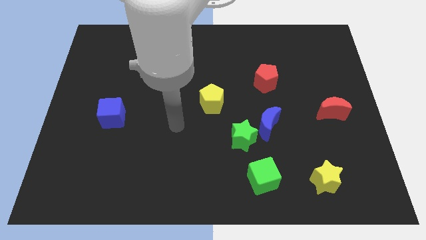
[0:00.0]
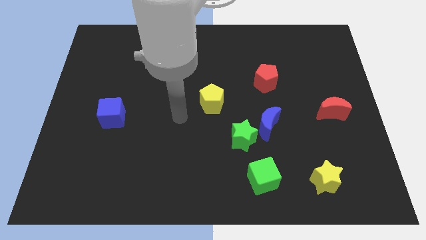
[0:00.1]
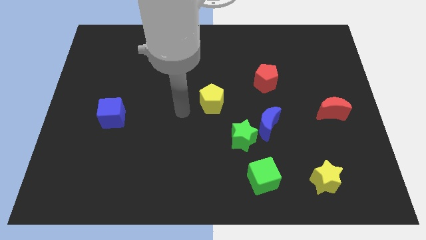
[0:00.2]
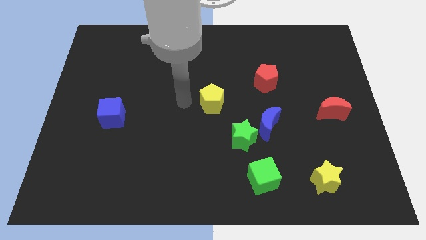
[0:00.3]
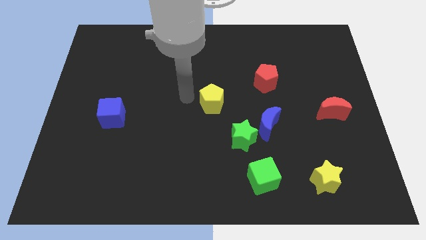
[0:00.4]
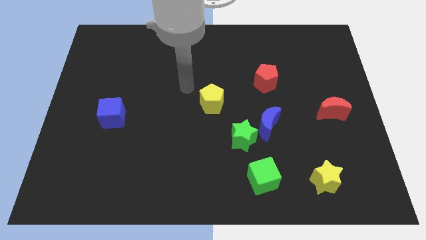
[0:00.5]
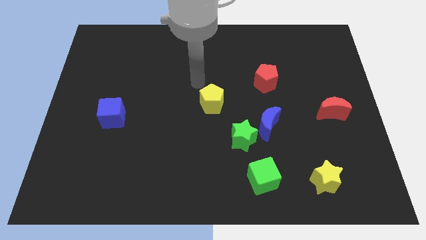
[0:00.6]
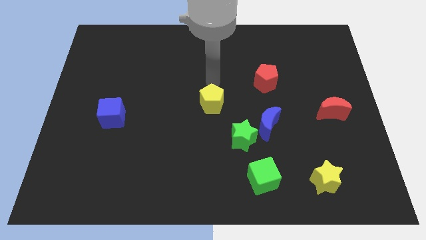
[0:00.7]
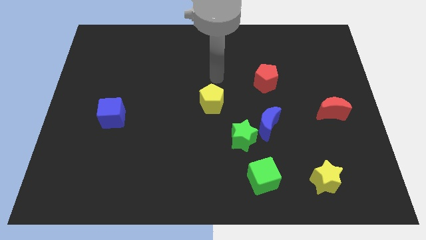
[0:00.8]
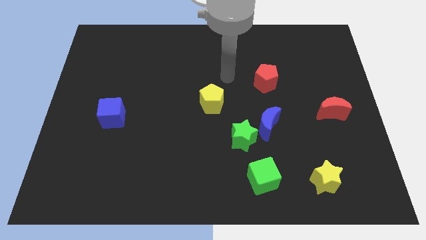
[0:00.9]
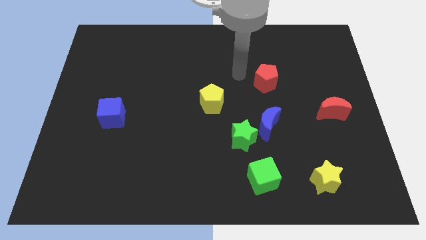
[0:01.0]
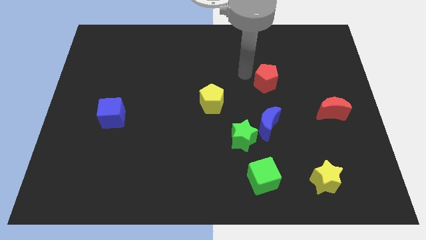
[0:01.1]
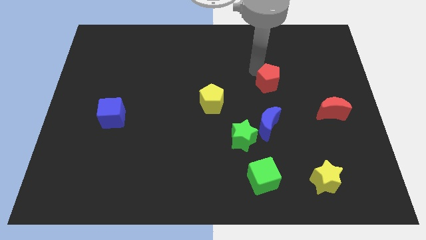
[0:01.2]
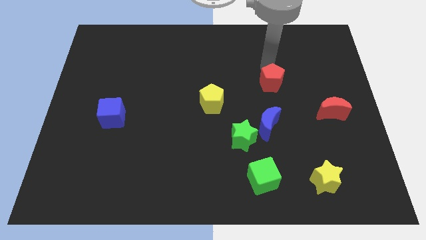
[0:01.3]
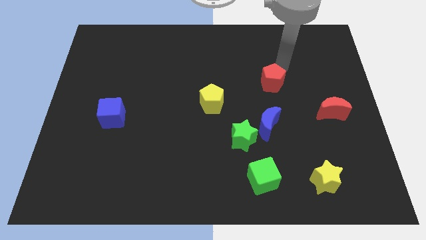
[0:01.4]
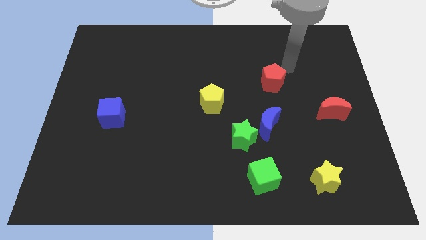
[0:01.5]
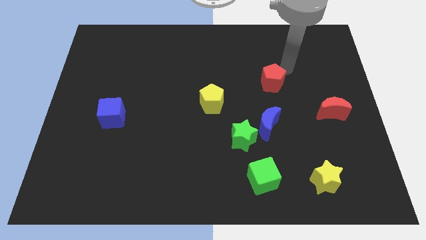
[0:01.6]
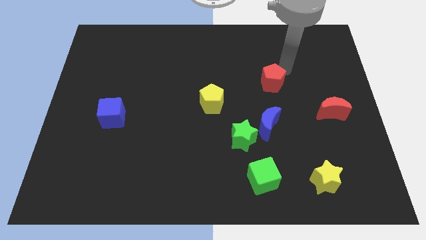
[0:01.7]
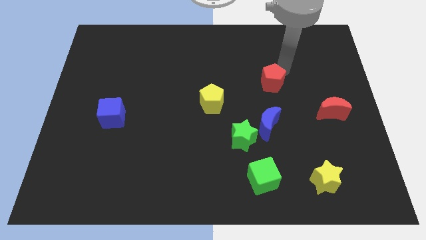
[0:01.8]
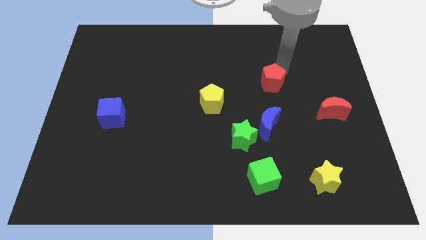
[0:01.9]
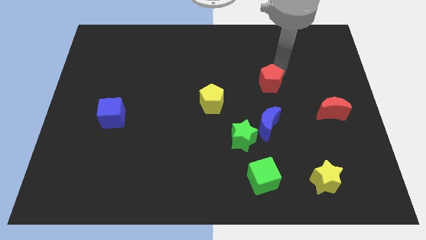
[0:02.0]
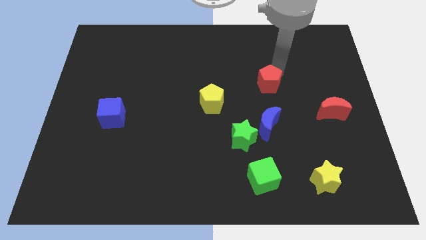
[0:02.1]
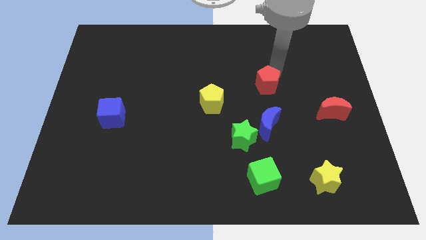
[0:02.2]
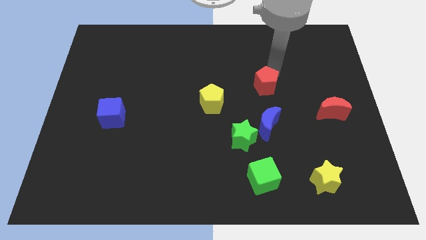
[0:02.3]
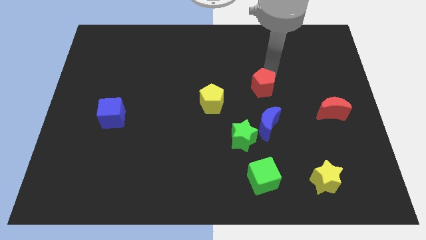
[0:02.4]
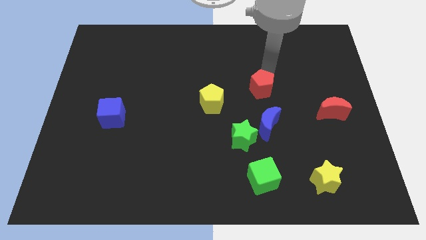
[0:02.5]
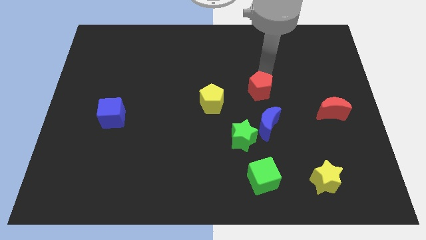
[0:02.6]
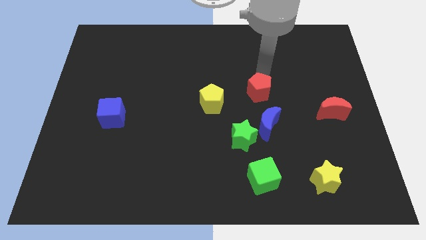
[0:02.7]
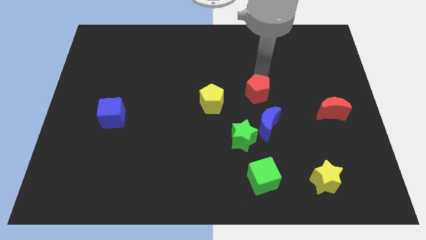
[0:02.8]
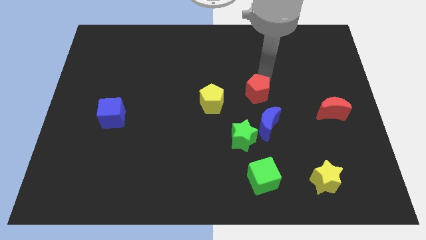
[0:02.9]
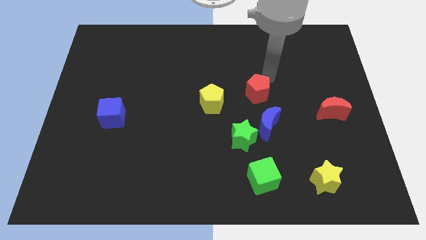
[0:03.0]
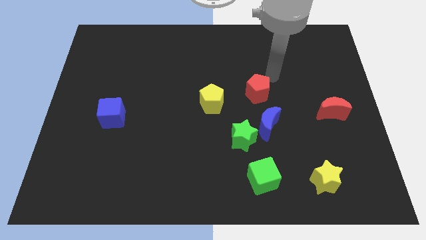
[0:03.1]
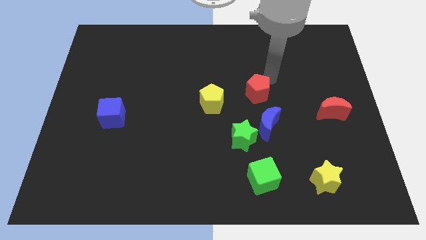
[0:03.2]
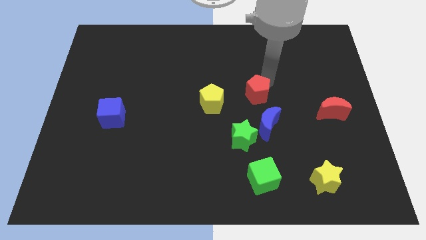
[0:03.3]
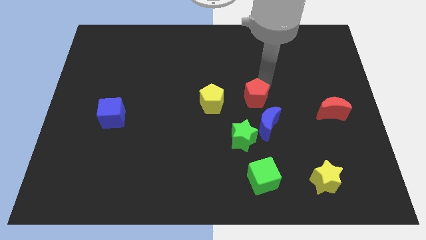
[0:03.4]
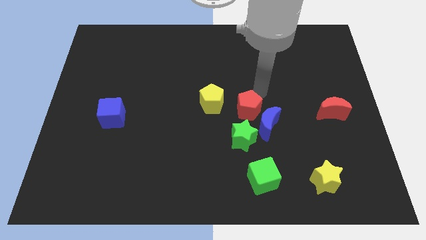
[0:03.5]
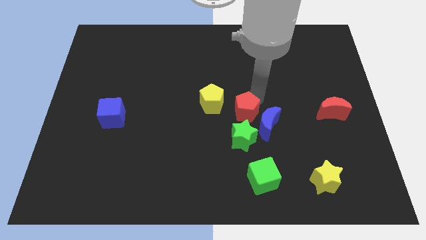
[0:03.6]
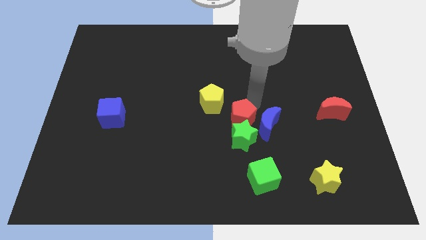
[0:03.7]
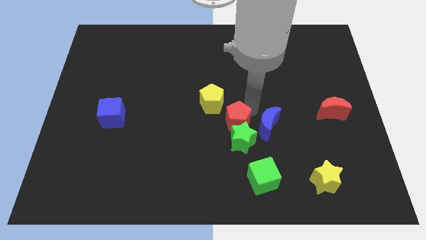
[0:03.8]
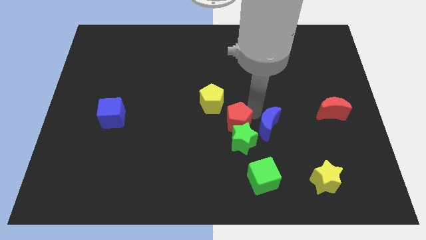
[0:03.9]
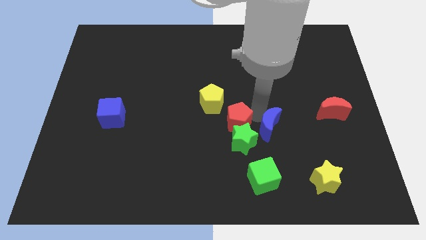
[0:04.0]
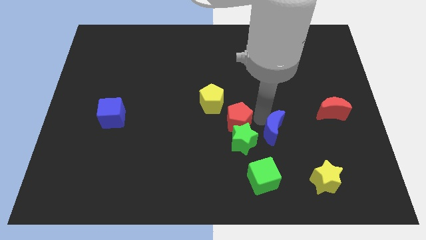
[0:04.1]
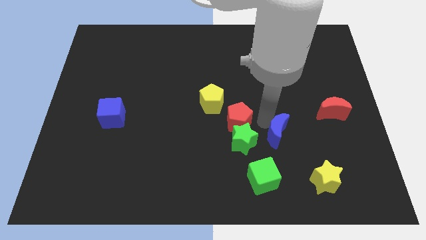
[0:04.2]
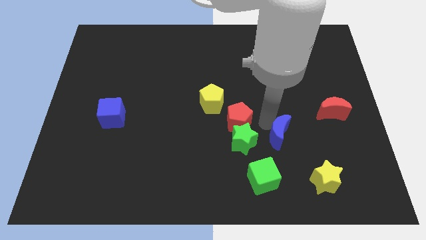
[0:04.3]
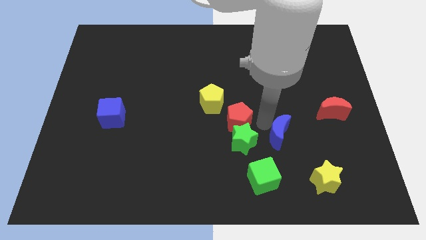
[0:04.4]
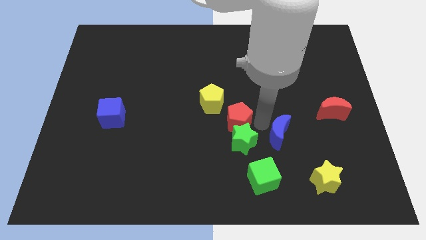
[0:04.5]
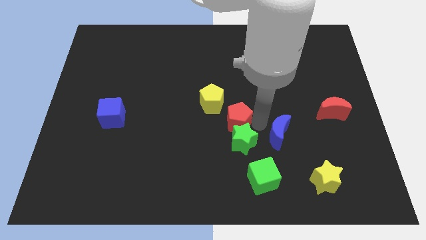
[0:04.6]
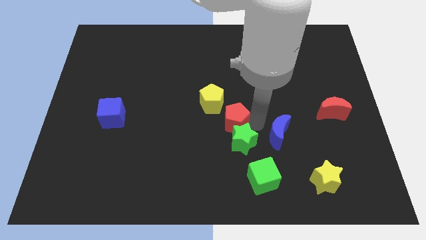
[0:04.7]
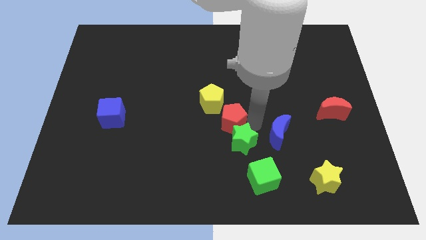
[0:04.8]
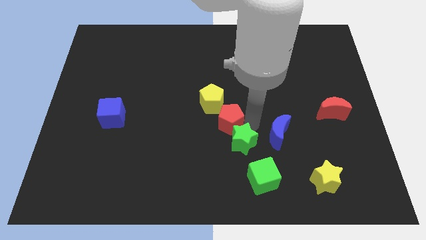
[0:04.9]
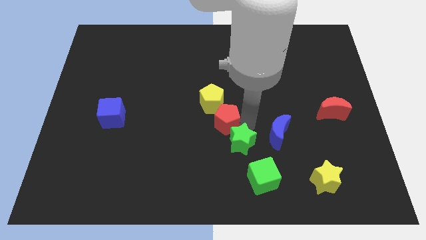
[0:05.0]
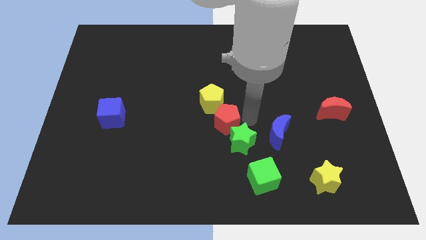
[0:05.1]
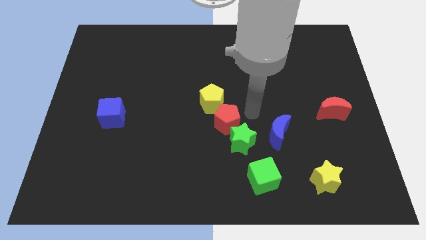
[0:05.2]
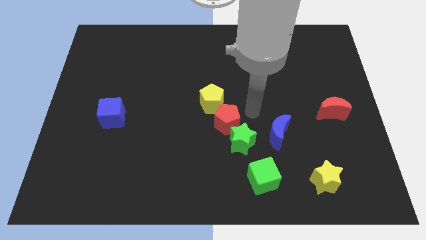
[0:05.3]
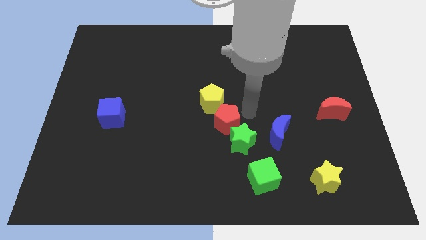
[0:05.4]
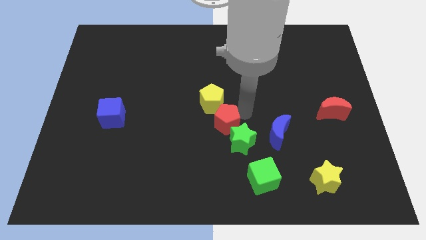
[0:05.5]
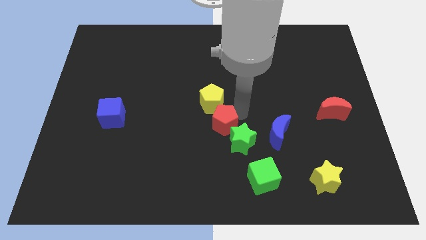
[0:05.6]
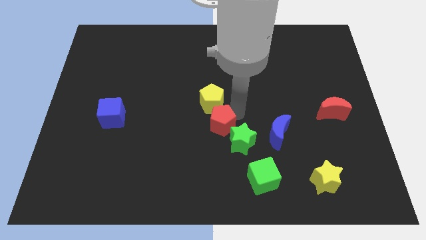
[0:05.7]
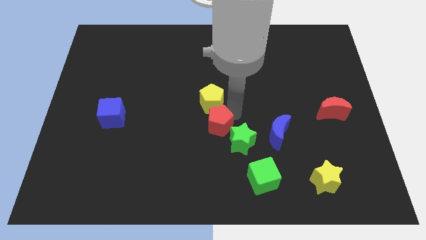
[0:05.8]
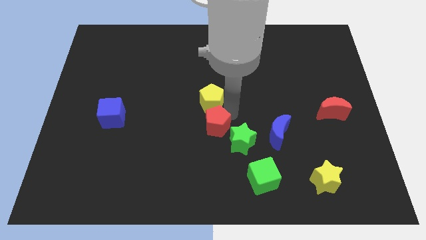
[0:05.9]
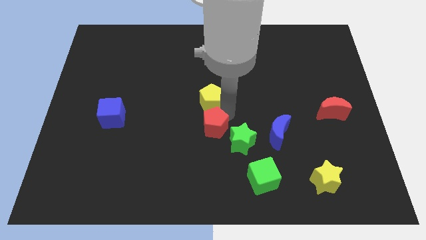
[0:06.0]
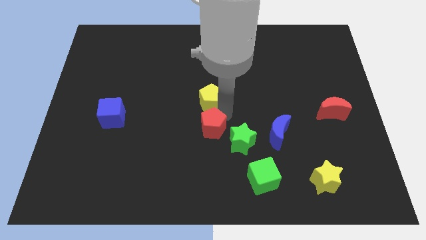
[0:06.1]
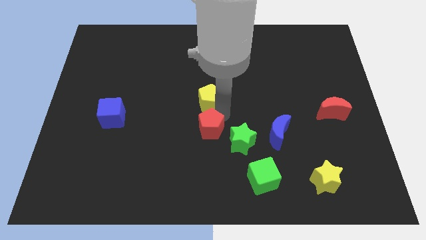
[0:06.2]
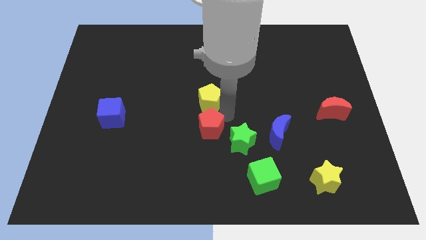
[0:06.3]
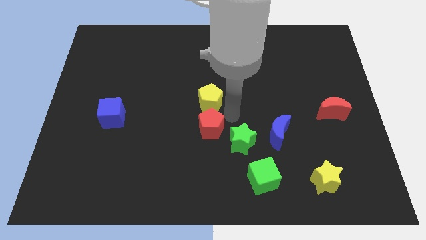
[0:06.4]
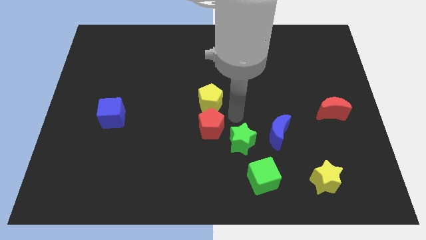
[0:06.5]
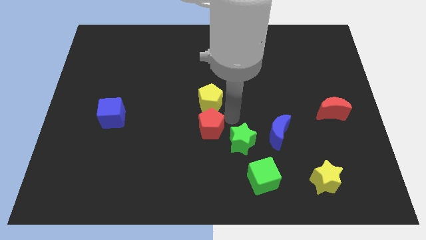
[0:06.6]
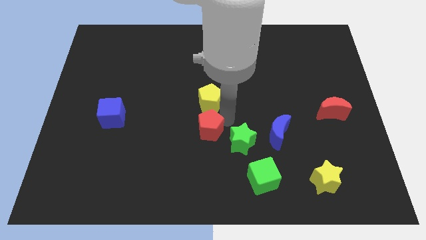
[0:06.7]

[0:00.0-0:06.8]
push the red pentagon down and left

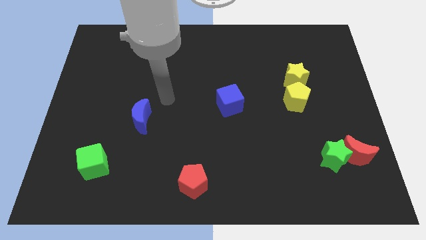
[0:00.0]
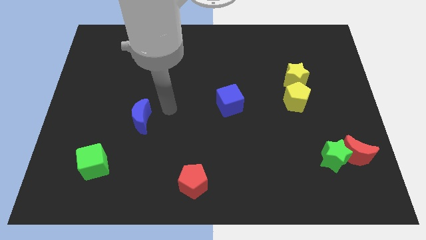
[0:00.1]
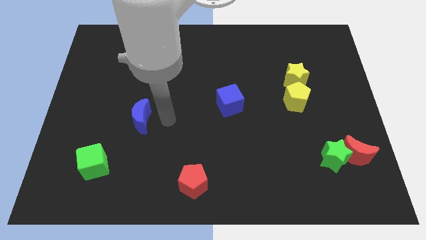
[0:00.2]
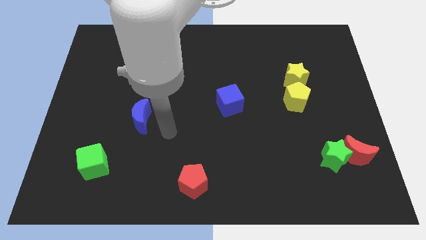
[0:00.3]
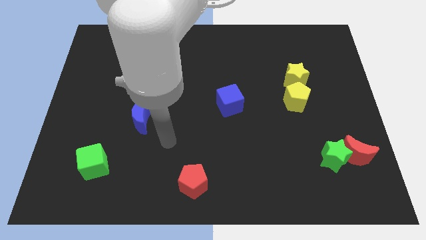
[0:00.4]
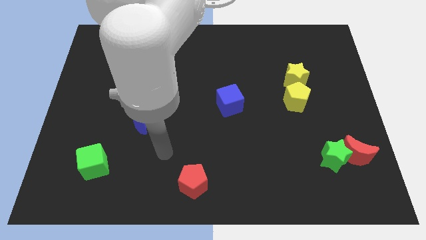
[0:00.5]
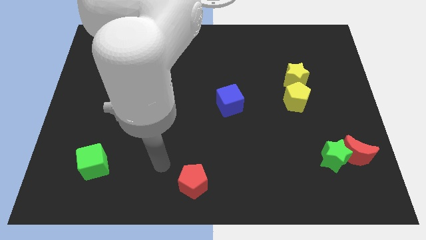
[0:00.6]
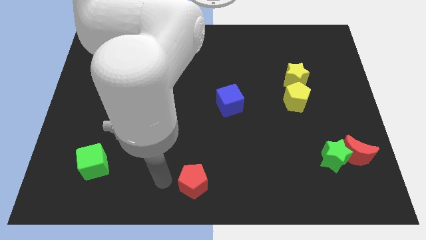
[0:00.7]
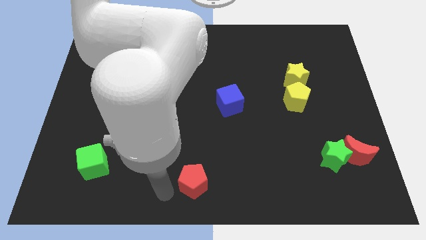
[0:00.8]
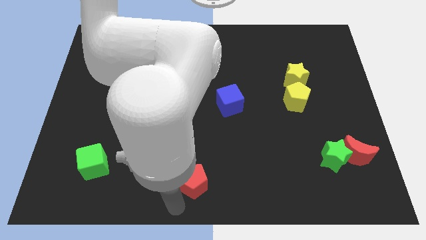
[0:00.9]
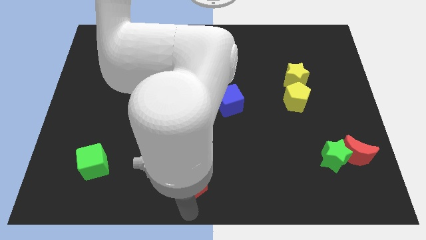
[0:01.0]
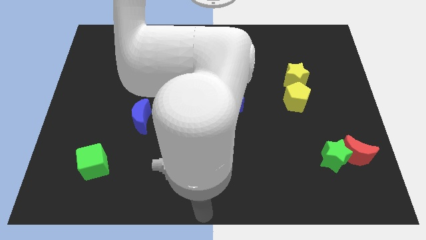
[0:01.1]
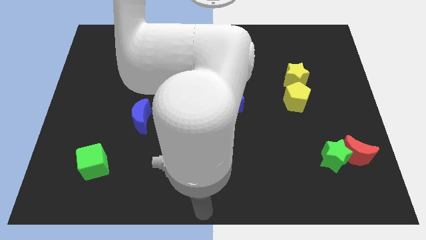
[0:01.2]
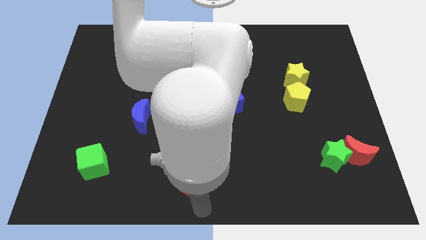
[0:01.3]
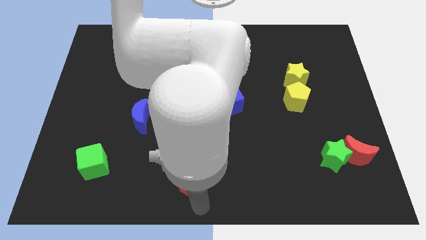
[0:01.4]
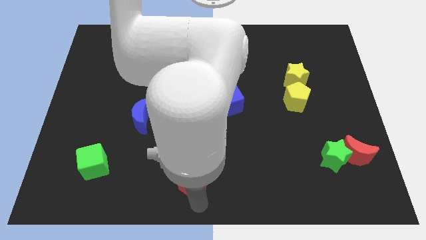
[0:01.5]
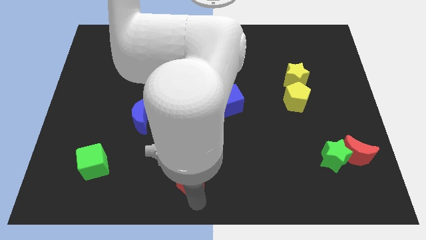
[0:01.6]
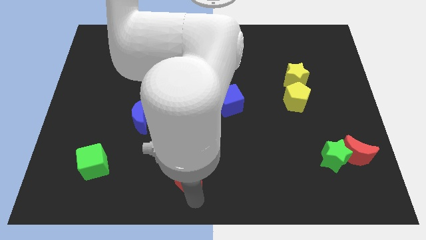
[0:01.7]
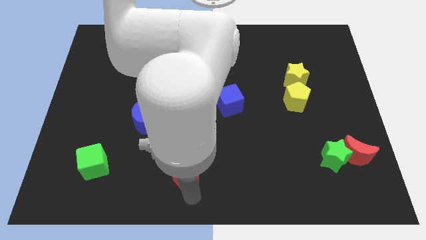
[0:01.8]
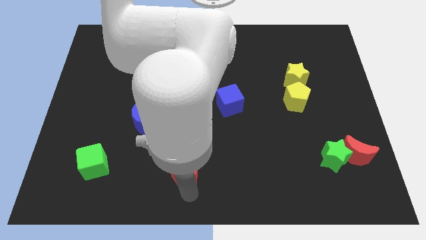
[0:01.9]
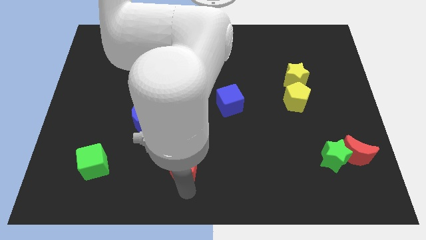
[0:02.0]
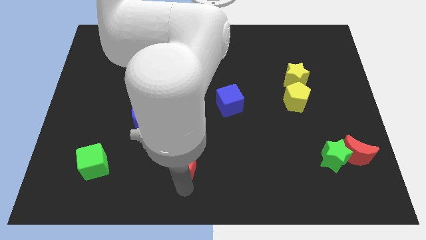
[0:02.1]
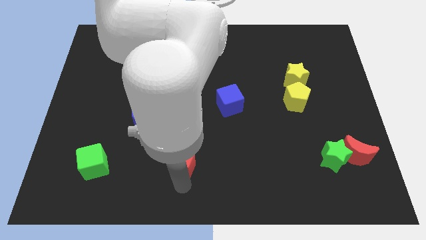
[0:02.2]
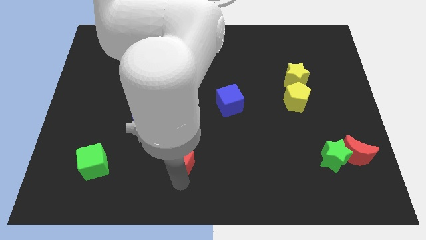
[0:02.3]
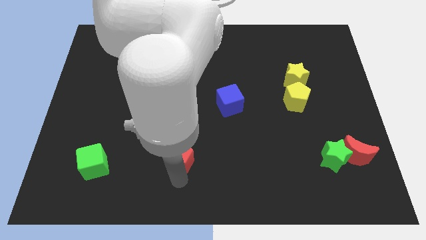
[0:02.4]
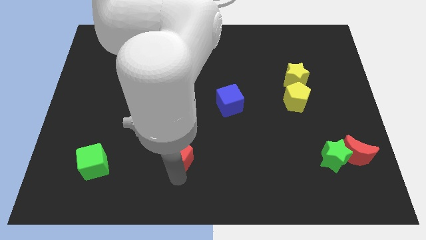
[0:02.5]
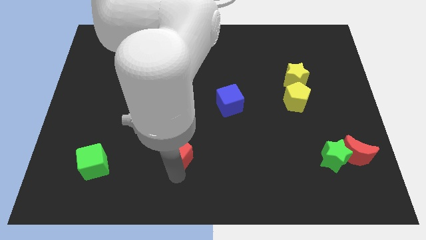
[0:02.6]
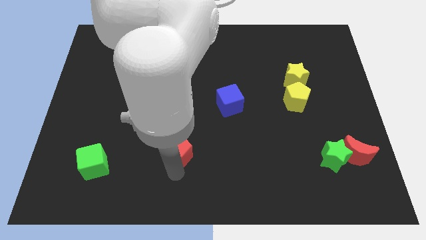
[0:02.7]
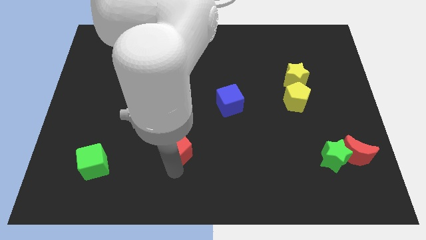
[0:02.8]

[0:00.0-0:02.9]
slide the red pentagon a little up
